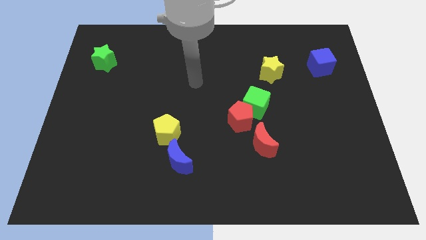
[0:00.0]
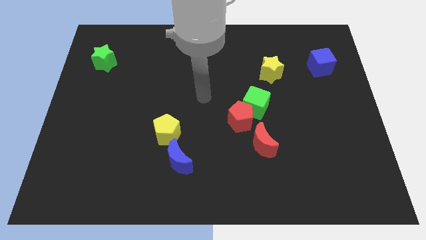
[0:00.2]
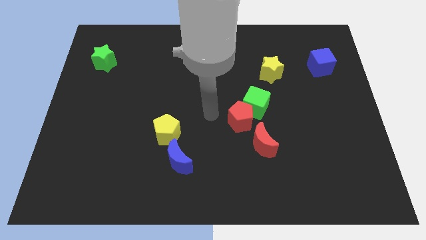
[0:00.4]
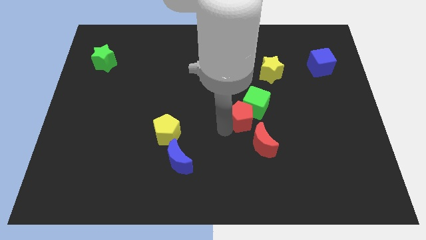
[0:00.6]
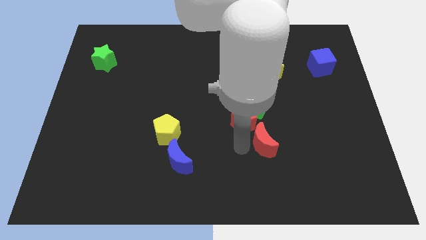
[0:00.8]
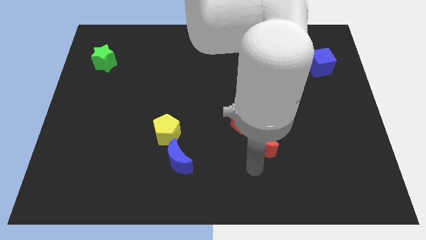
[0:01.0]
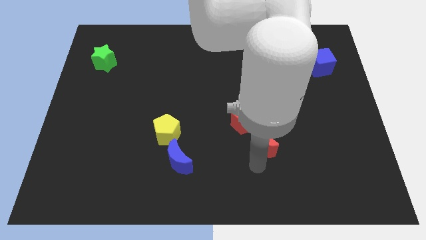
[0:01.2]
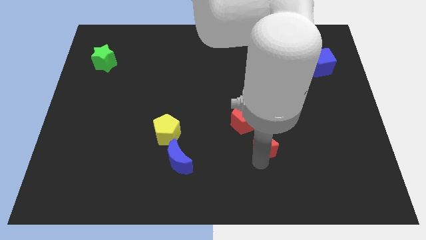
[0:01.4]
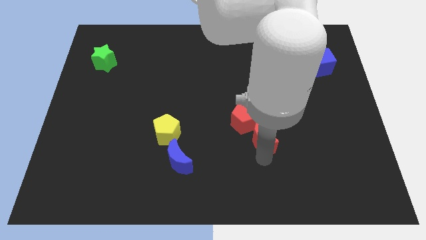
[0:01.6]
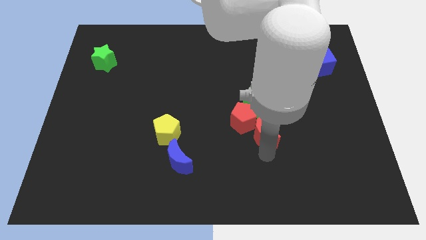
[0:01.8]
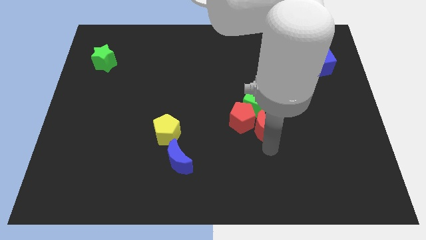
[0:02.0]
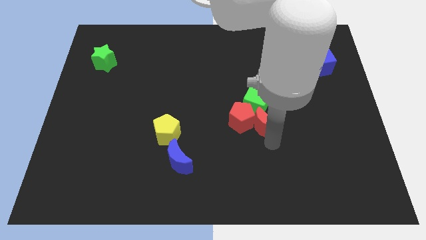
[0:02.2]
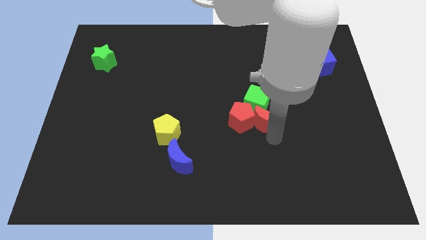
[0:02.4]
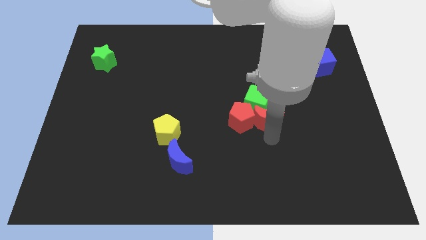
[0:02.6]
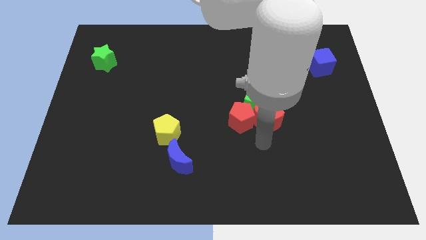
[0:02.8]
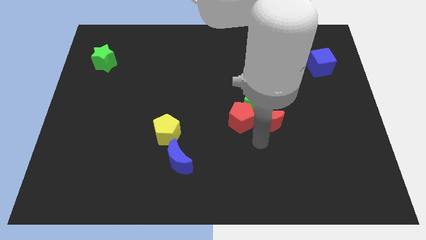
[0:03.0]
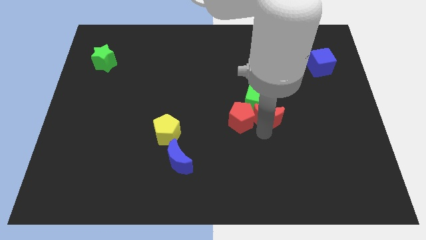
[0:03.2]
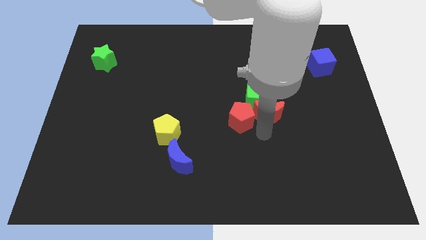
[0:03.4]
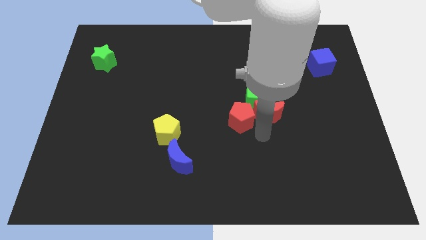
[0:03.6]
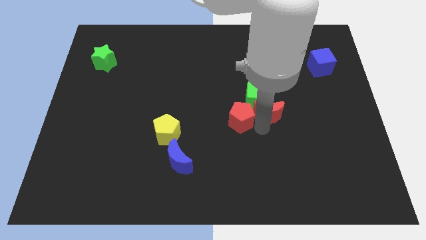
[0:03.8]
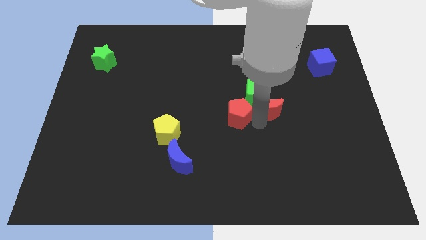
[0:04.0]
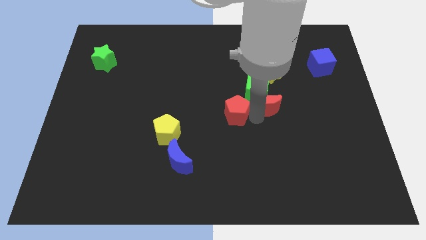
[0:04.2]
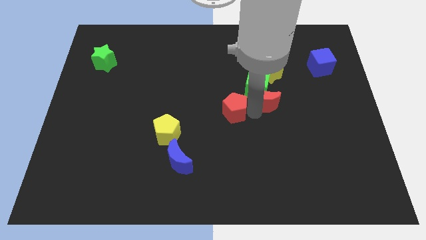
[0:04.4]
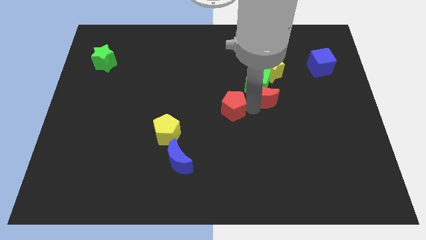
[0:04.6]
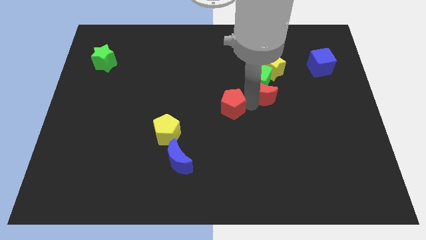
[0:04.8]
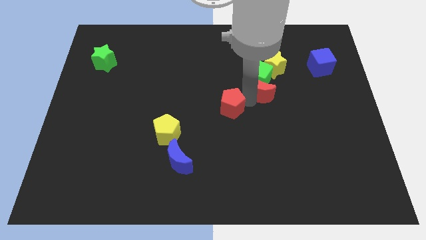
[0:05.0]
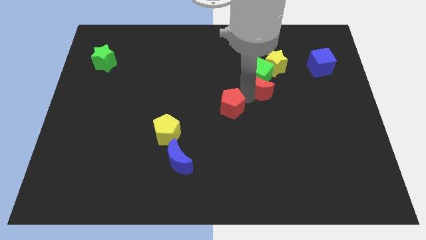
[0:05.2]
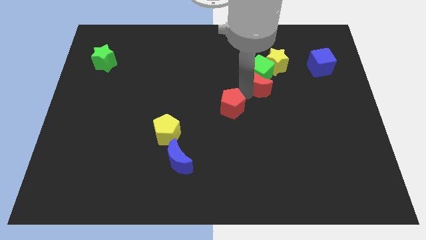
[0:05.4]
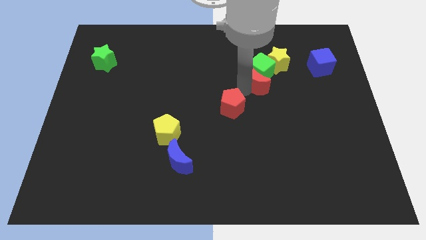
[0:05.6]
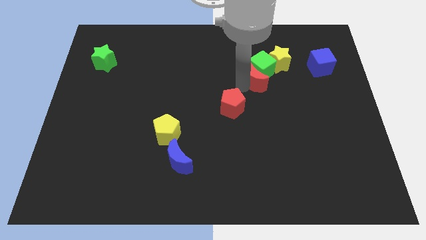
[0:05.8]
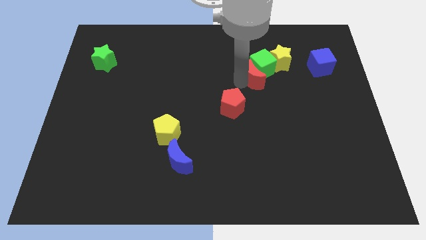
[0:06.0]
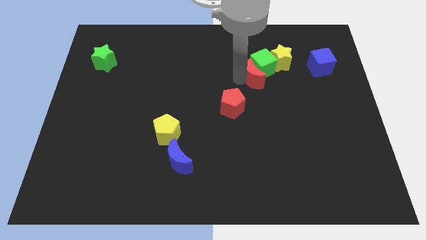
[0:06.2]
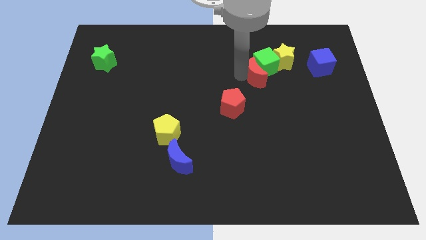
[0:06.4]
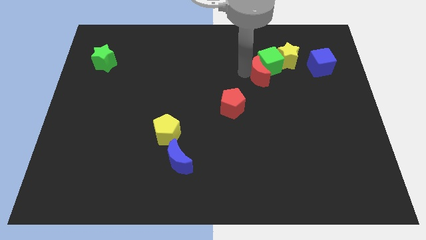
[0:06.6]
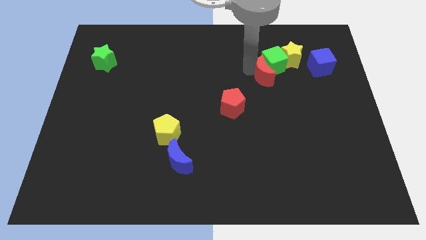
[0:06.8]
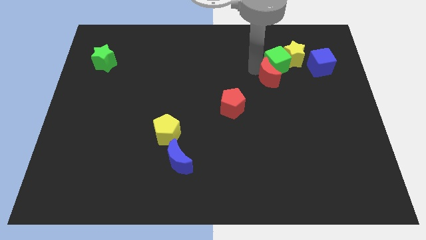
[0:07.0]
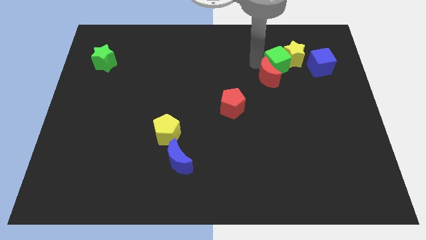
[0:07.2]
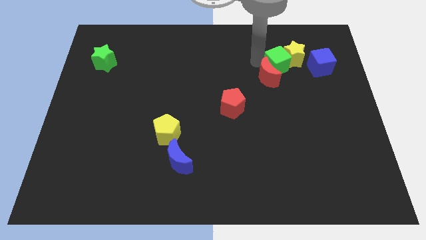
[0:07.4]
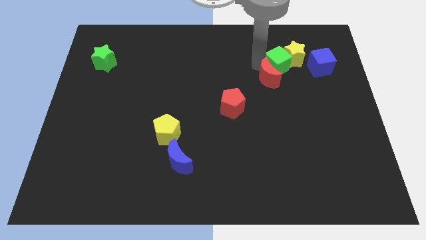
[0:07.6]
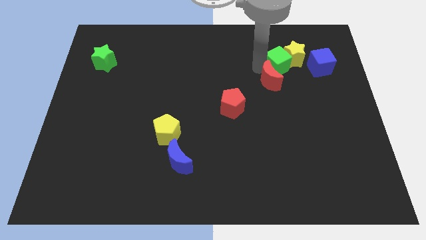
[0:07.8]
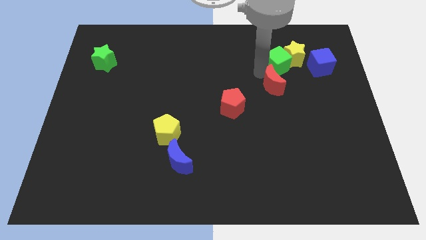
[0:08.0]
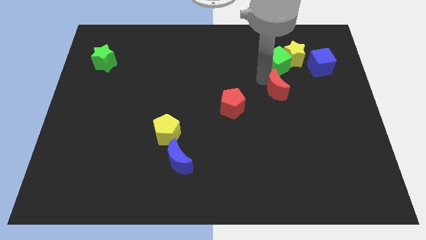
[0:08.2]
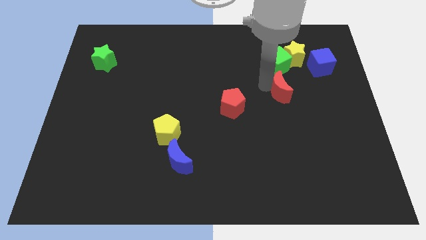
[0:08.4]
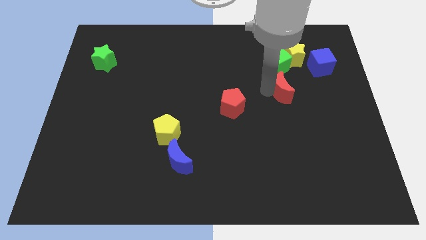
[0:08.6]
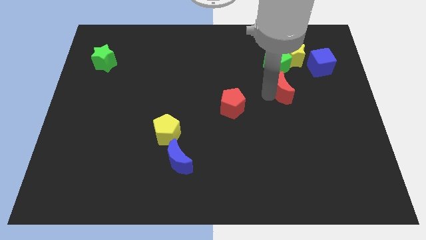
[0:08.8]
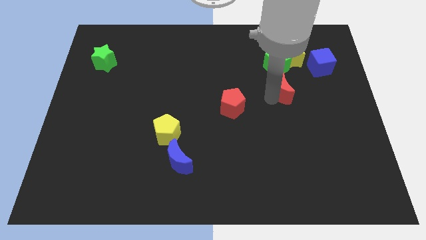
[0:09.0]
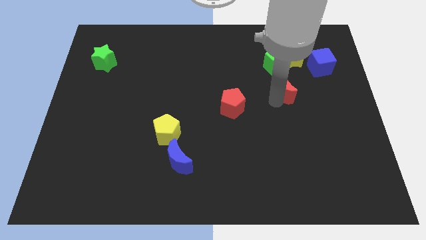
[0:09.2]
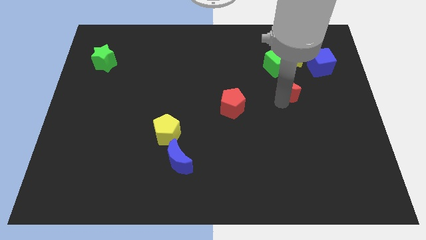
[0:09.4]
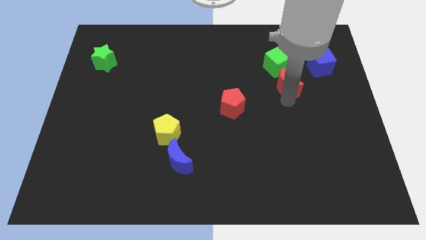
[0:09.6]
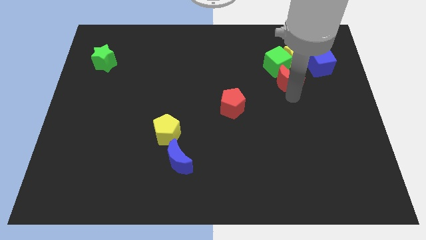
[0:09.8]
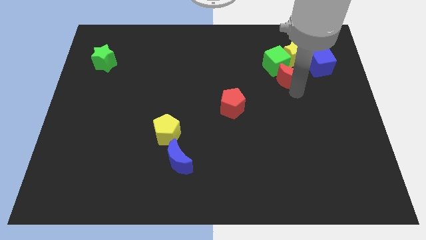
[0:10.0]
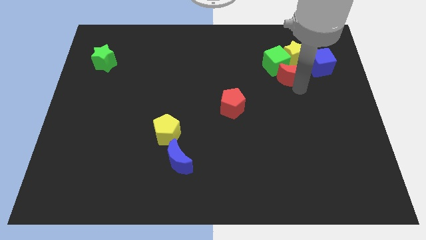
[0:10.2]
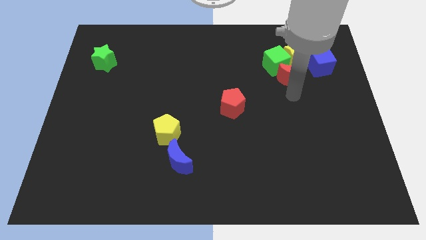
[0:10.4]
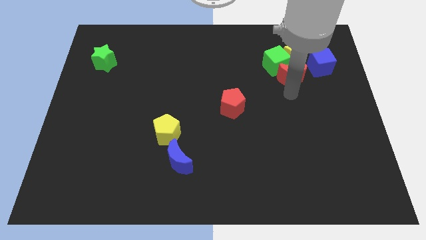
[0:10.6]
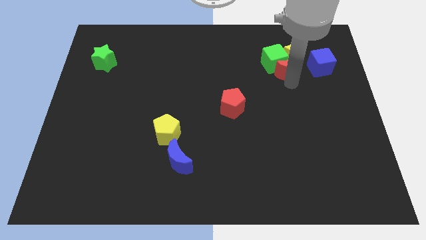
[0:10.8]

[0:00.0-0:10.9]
slide the red moon to the yellow star

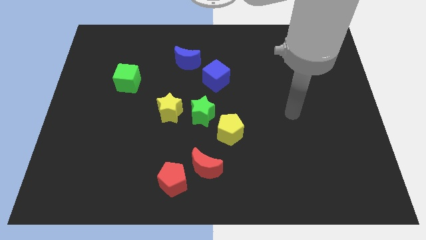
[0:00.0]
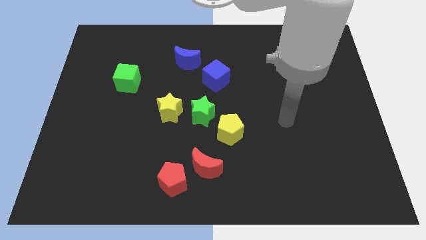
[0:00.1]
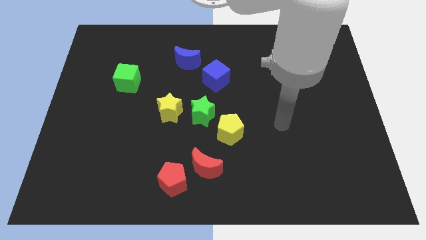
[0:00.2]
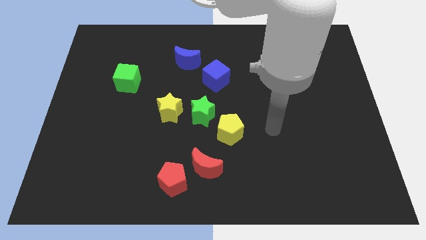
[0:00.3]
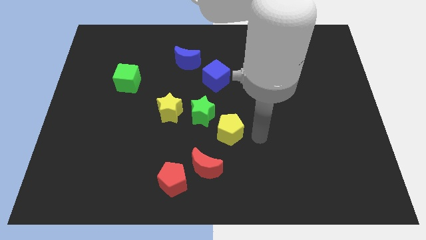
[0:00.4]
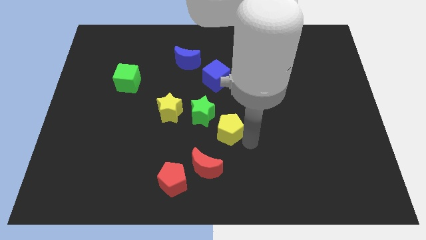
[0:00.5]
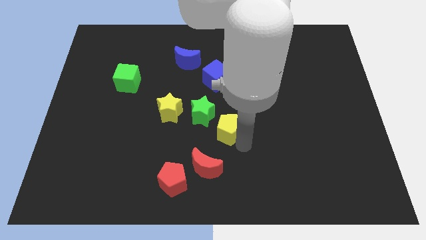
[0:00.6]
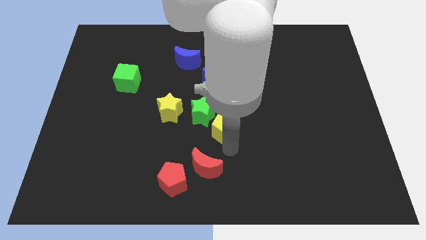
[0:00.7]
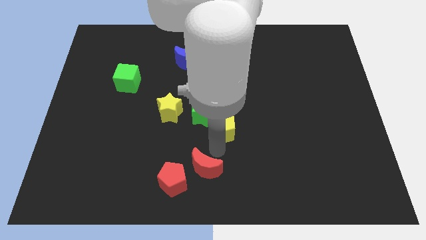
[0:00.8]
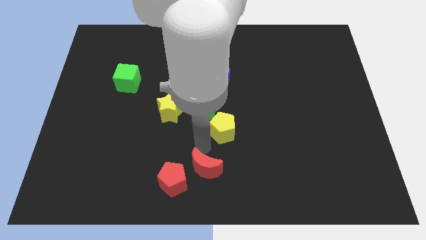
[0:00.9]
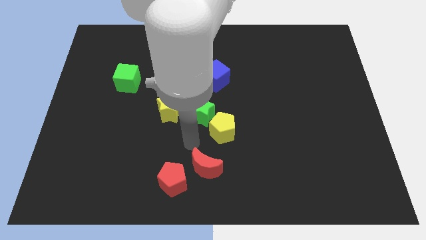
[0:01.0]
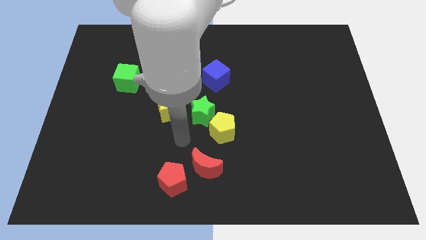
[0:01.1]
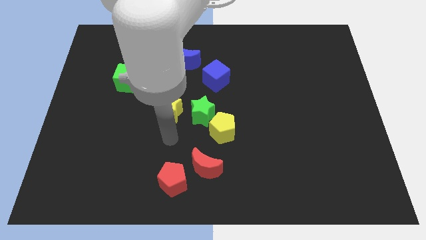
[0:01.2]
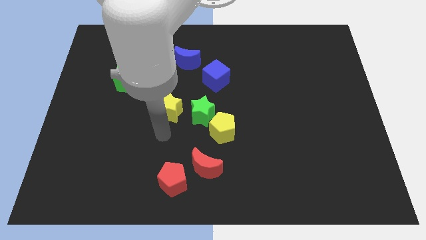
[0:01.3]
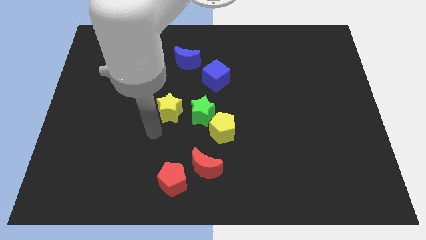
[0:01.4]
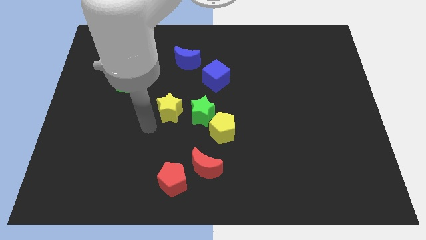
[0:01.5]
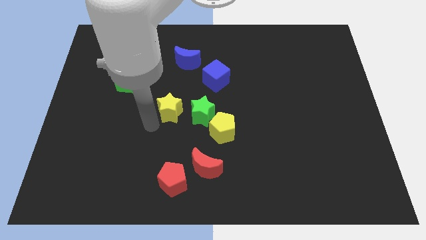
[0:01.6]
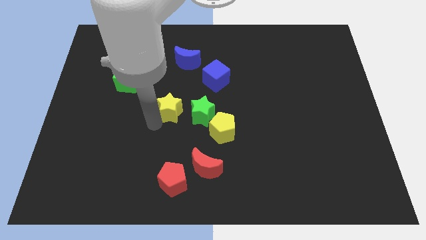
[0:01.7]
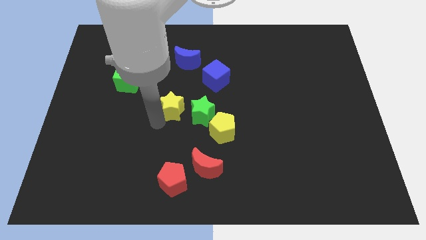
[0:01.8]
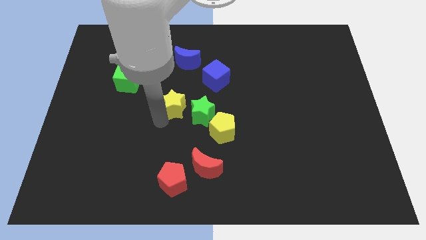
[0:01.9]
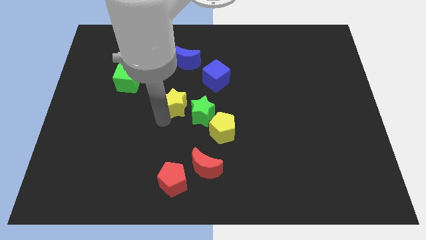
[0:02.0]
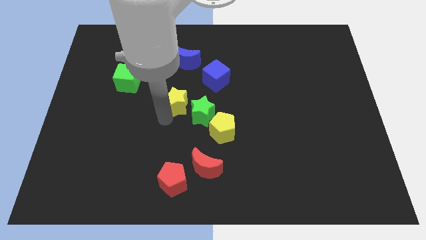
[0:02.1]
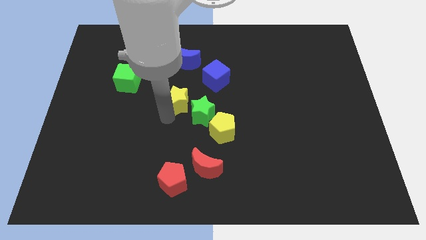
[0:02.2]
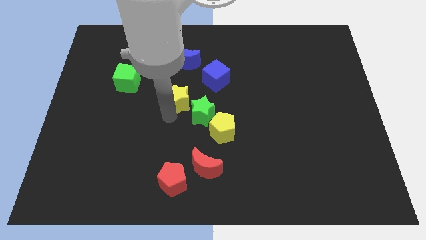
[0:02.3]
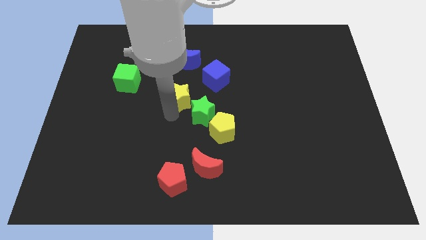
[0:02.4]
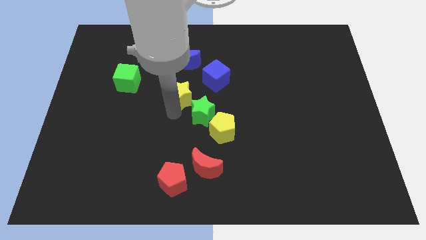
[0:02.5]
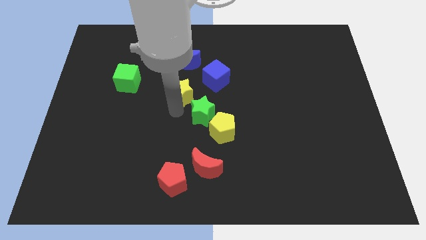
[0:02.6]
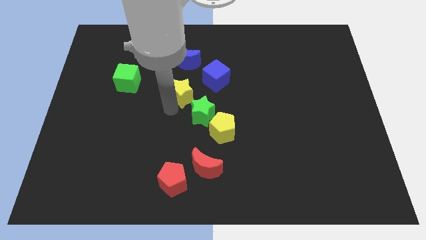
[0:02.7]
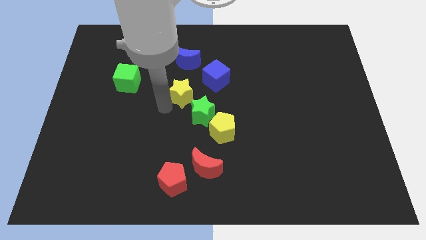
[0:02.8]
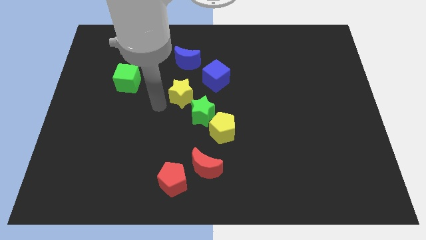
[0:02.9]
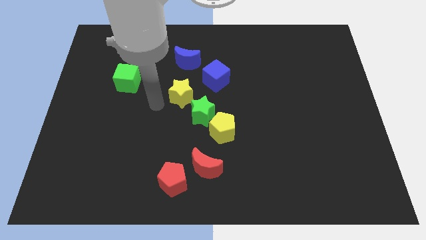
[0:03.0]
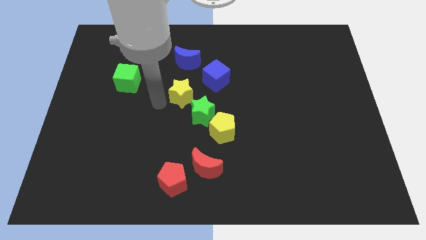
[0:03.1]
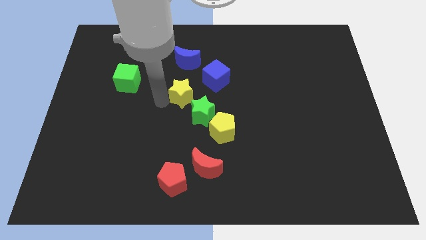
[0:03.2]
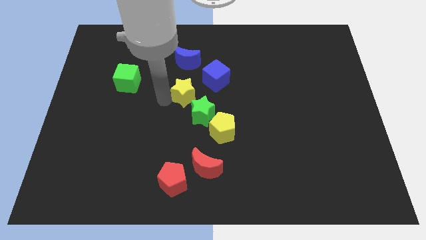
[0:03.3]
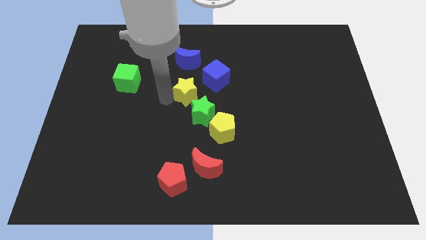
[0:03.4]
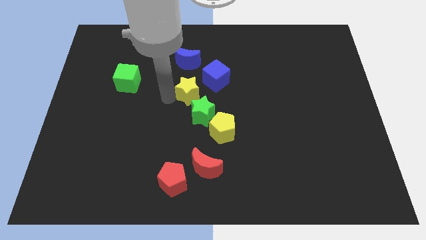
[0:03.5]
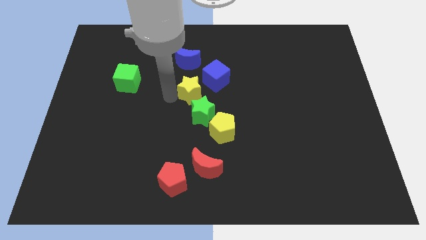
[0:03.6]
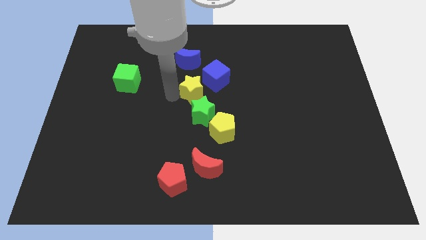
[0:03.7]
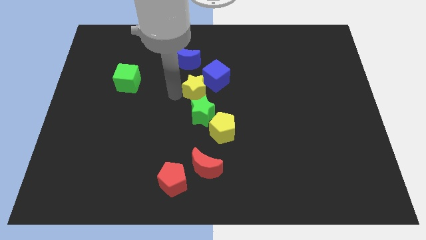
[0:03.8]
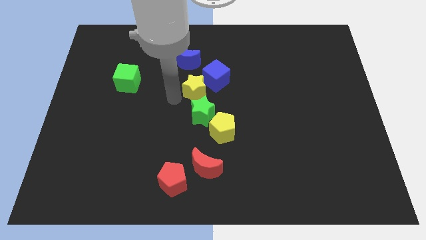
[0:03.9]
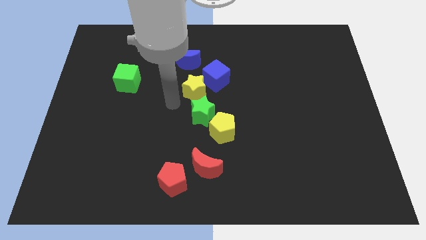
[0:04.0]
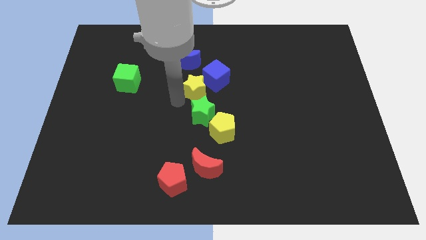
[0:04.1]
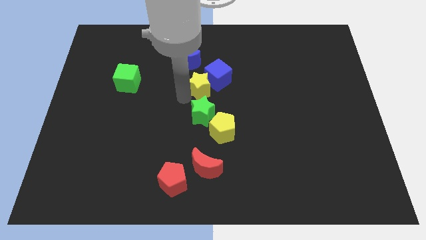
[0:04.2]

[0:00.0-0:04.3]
push the yellow star towards the blue cube
